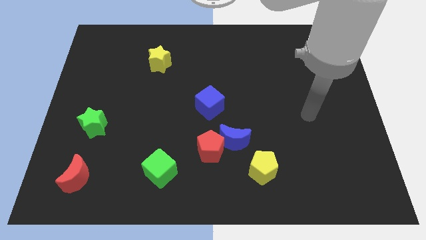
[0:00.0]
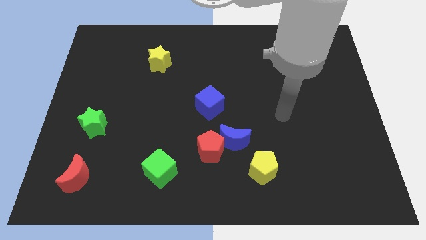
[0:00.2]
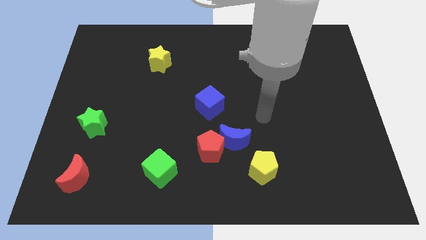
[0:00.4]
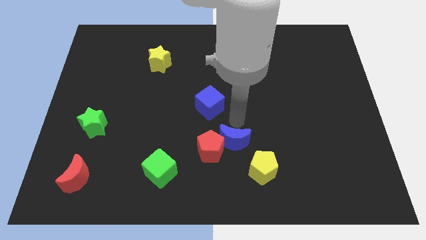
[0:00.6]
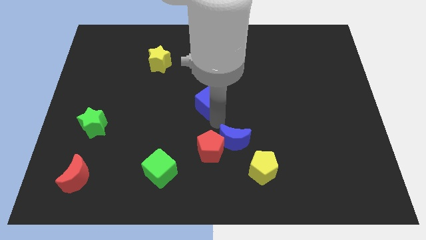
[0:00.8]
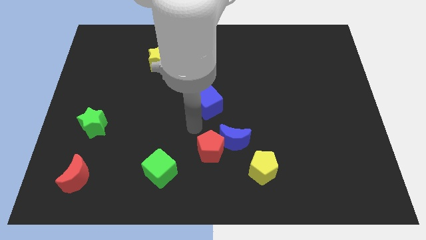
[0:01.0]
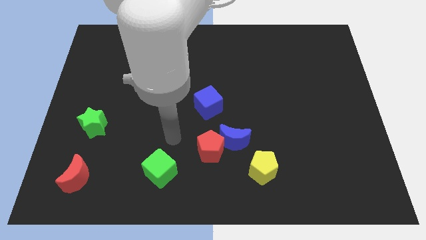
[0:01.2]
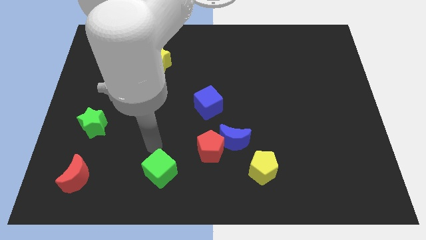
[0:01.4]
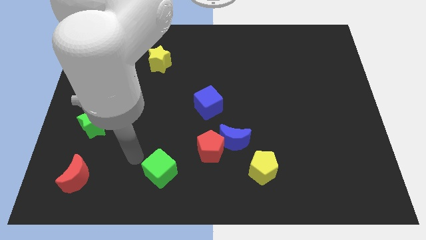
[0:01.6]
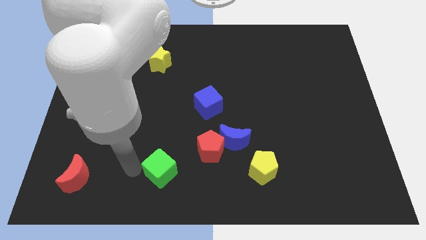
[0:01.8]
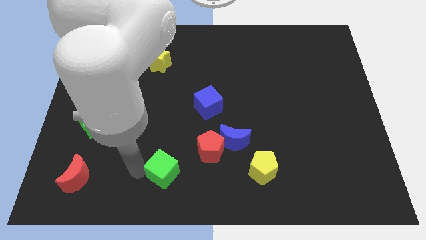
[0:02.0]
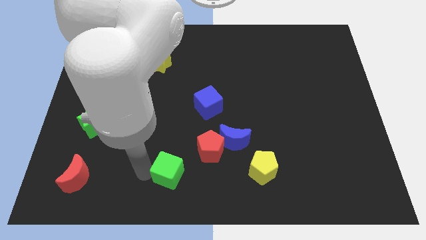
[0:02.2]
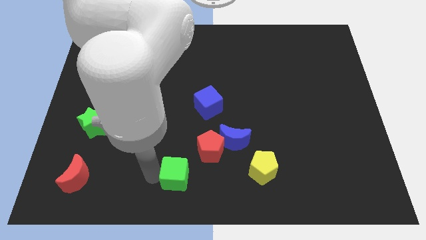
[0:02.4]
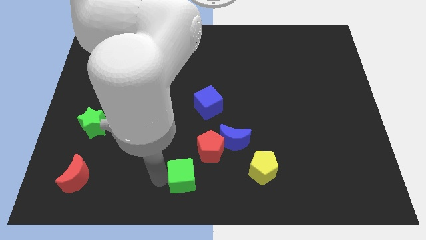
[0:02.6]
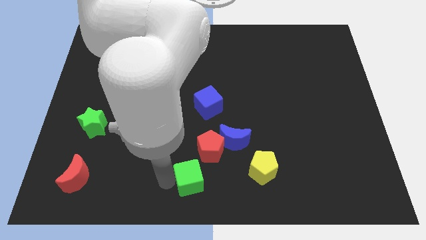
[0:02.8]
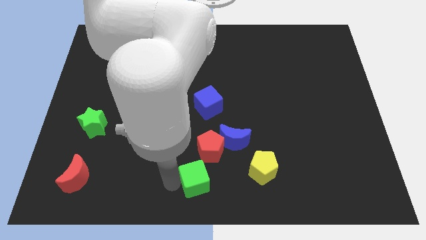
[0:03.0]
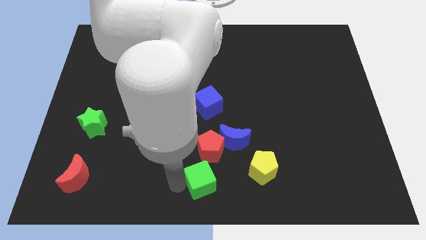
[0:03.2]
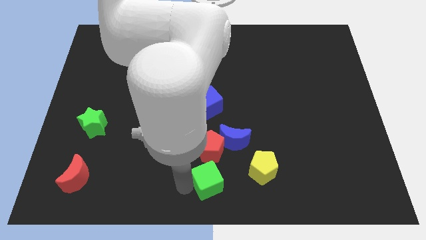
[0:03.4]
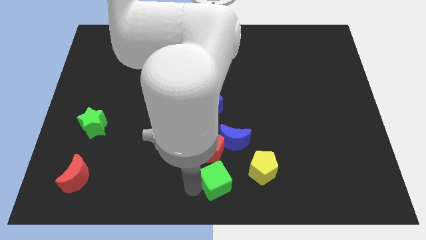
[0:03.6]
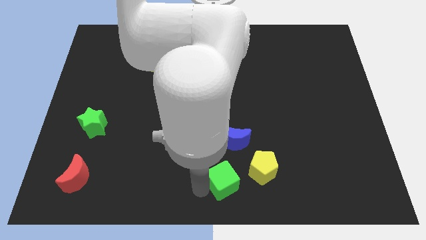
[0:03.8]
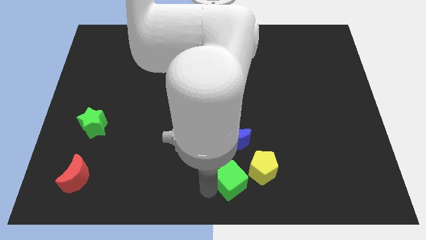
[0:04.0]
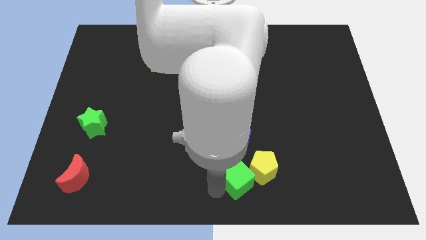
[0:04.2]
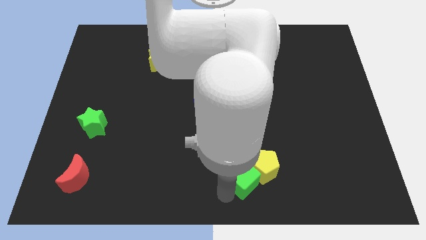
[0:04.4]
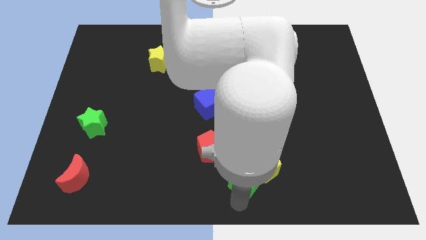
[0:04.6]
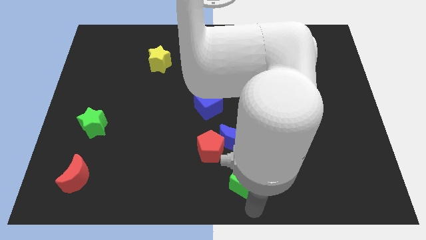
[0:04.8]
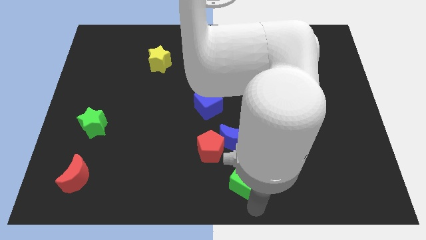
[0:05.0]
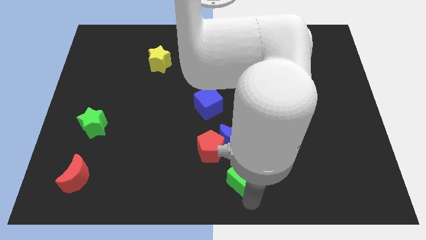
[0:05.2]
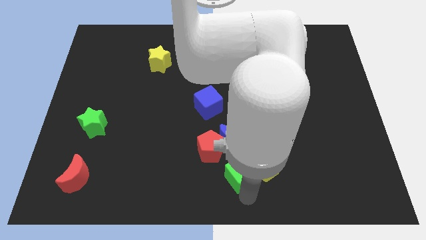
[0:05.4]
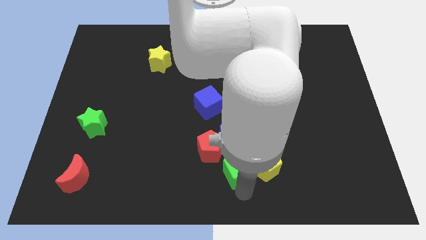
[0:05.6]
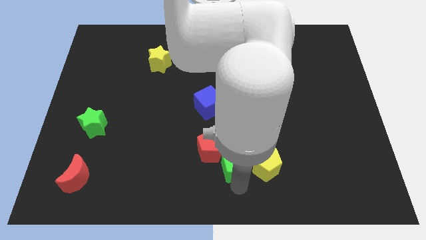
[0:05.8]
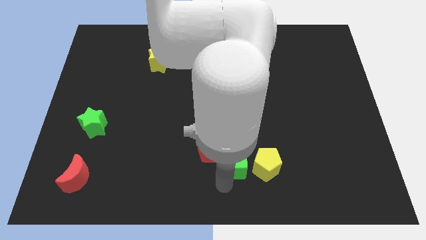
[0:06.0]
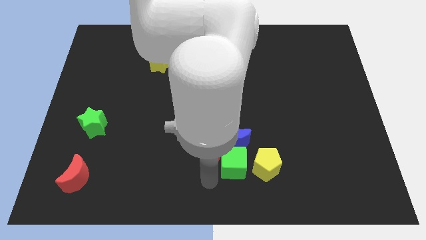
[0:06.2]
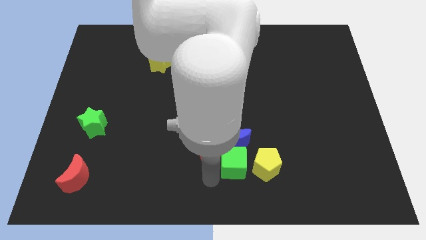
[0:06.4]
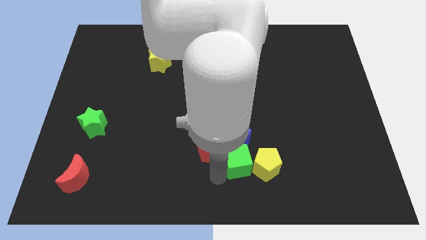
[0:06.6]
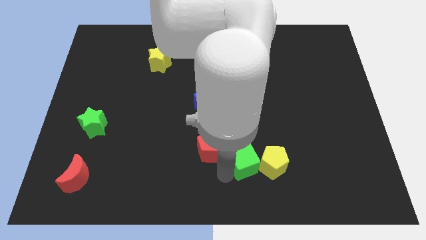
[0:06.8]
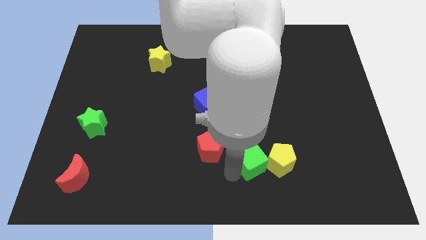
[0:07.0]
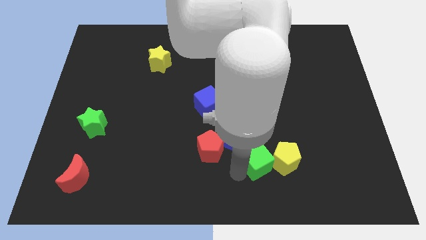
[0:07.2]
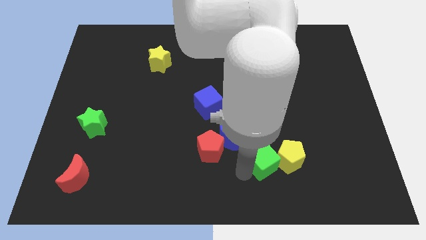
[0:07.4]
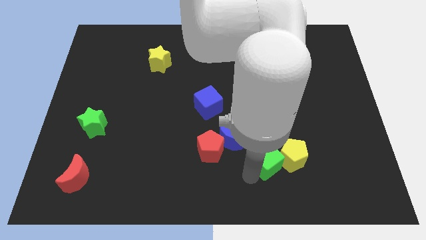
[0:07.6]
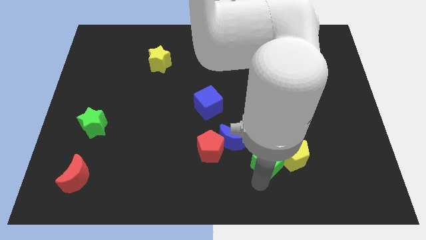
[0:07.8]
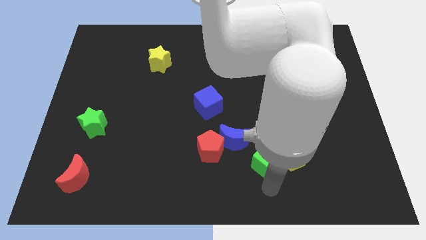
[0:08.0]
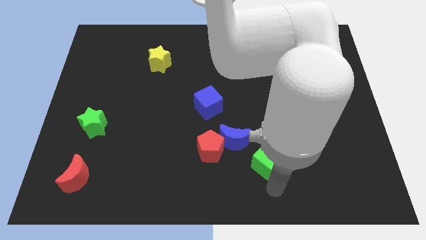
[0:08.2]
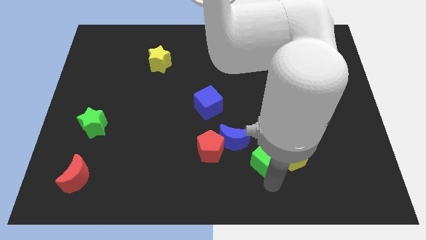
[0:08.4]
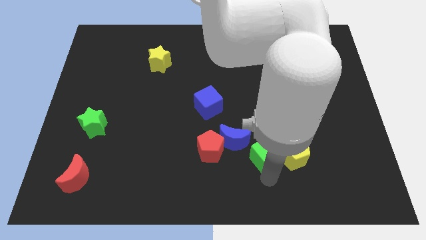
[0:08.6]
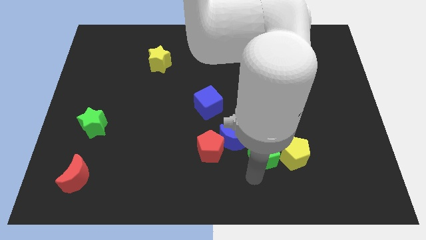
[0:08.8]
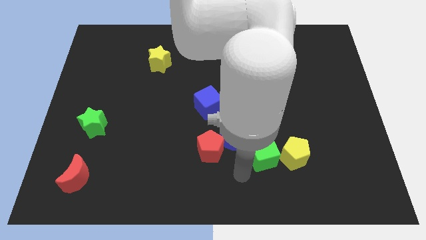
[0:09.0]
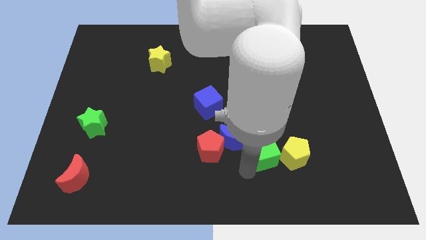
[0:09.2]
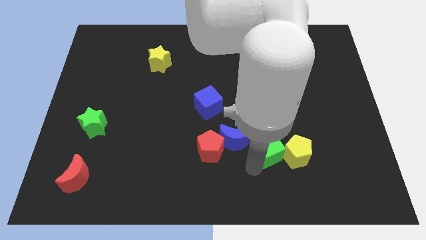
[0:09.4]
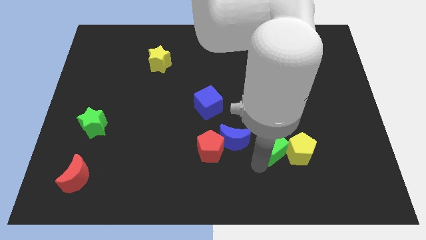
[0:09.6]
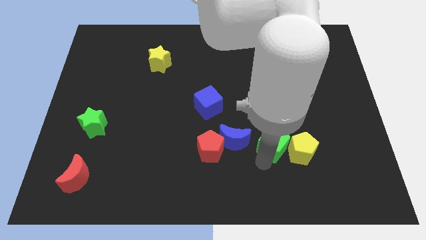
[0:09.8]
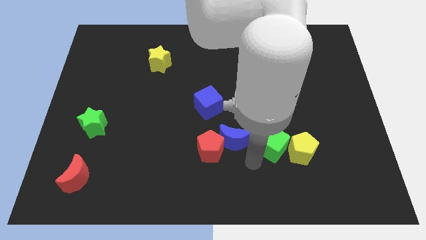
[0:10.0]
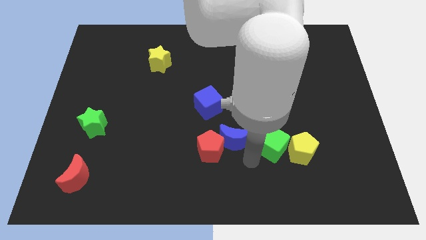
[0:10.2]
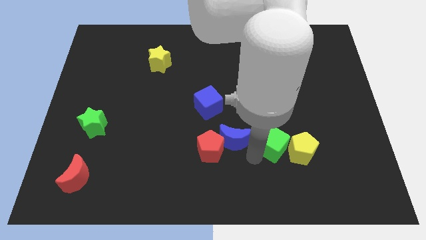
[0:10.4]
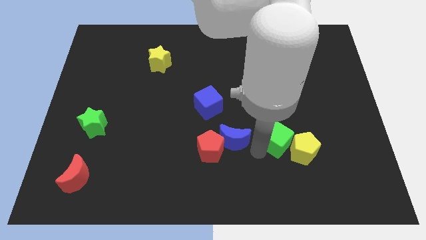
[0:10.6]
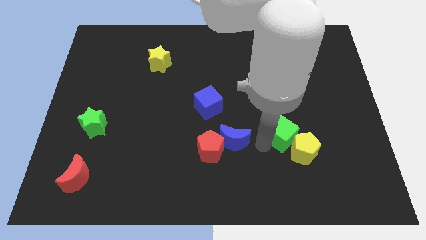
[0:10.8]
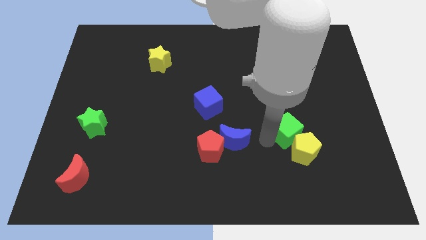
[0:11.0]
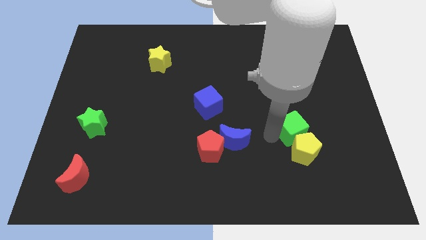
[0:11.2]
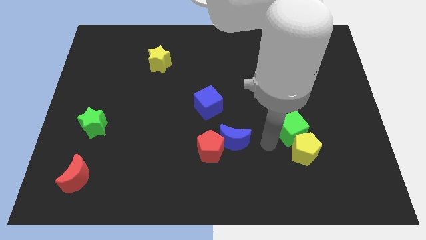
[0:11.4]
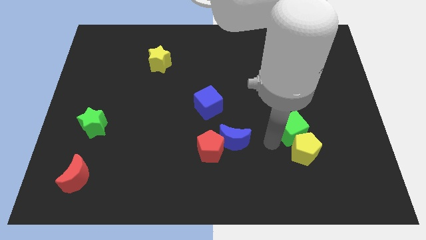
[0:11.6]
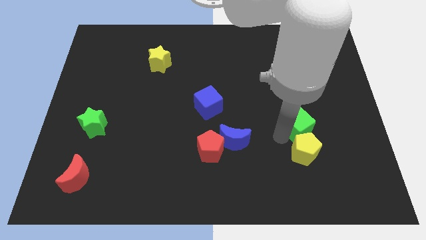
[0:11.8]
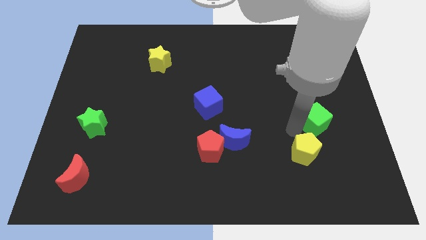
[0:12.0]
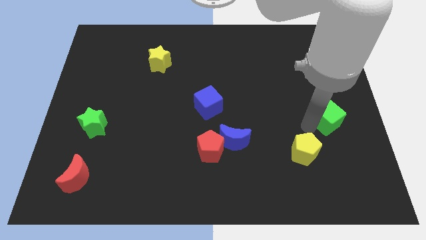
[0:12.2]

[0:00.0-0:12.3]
move the green cube to the center right
